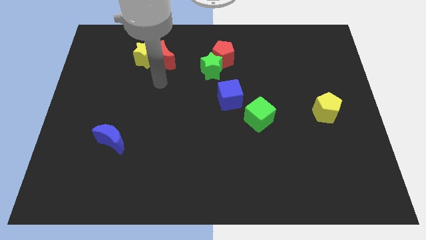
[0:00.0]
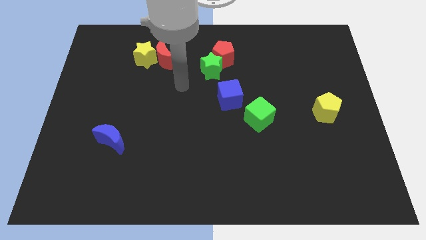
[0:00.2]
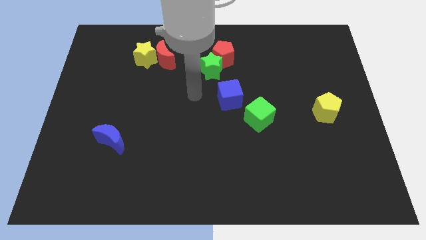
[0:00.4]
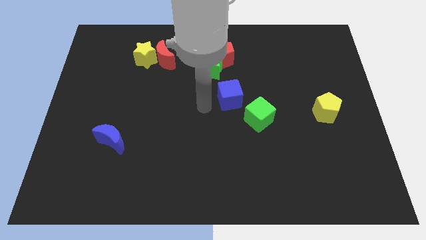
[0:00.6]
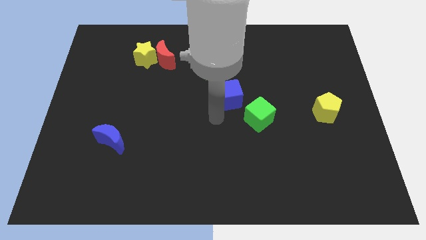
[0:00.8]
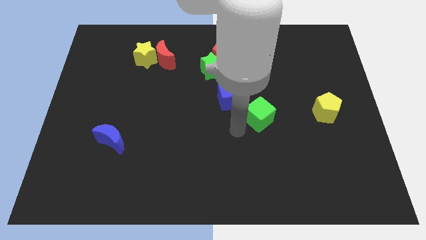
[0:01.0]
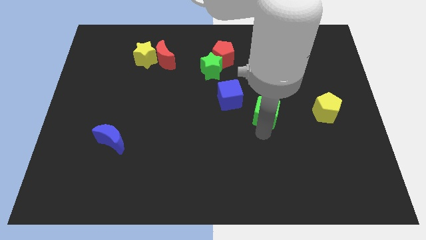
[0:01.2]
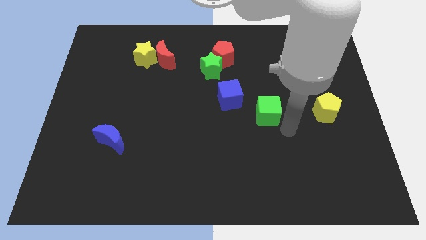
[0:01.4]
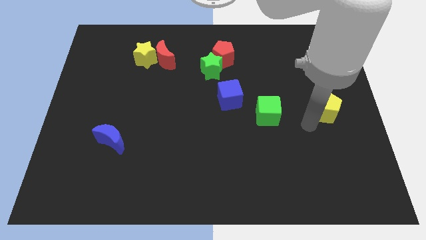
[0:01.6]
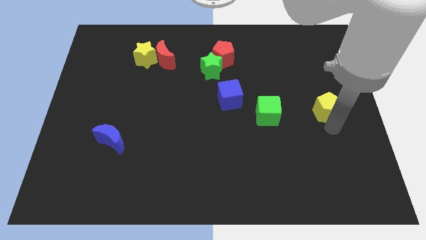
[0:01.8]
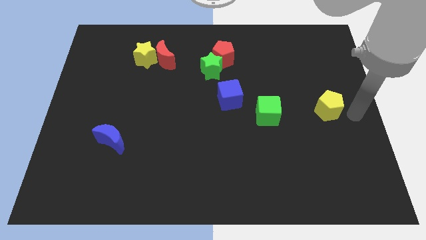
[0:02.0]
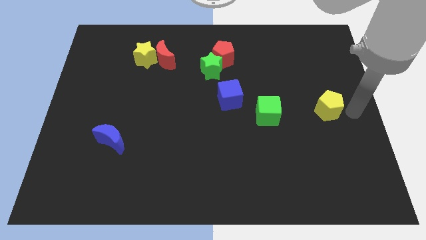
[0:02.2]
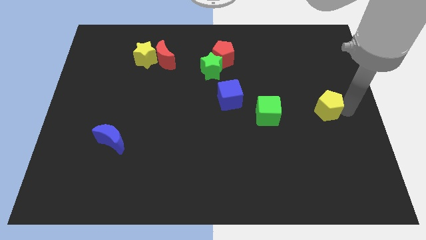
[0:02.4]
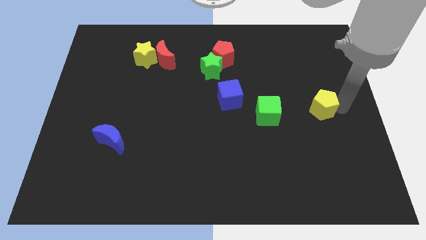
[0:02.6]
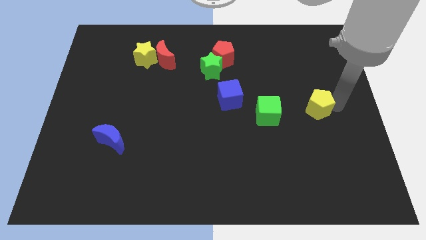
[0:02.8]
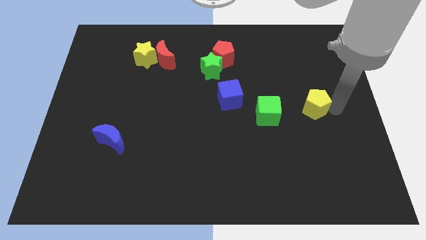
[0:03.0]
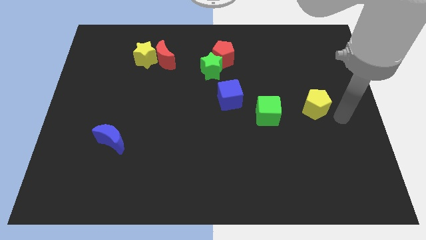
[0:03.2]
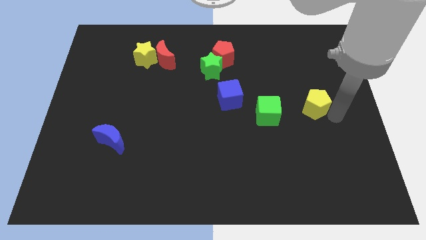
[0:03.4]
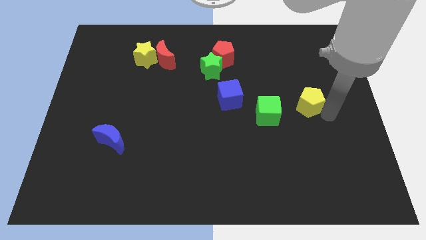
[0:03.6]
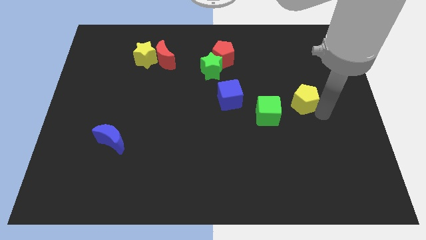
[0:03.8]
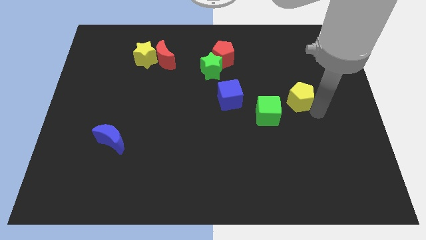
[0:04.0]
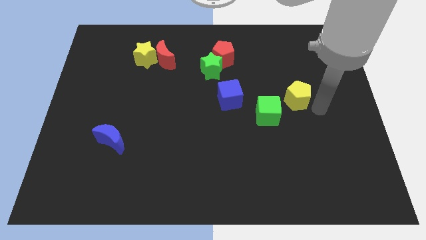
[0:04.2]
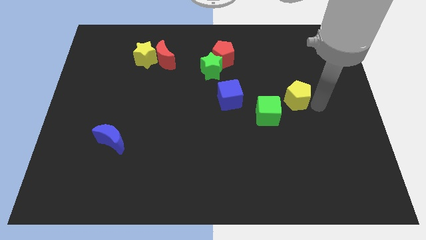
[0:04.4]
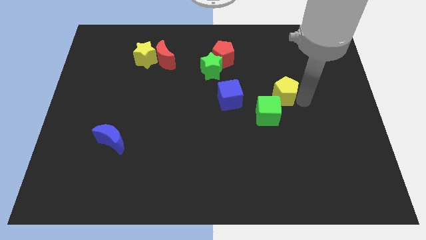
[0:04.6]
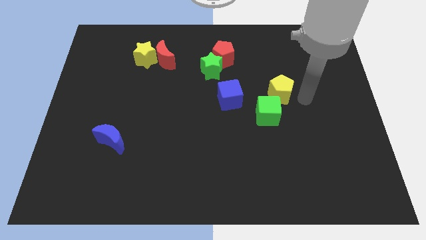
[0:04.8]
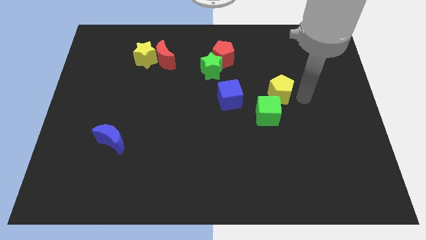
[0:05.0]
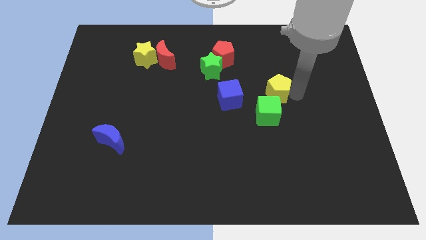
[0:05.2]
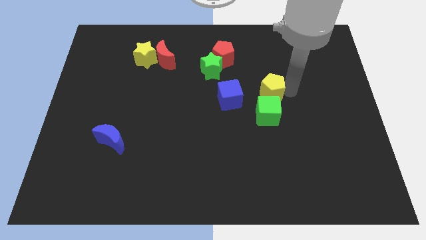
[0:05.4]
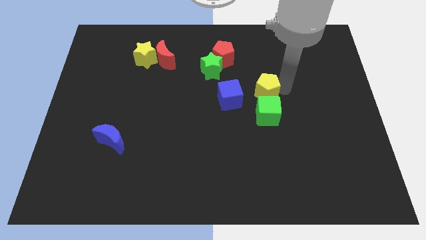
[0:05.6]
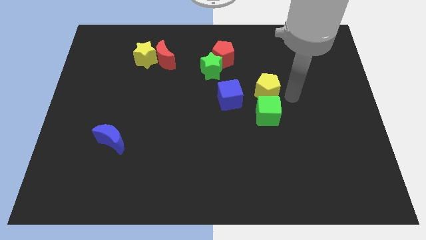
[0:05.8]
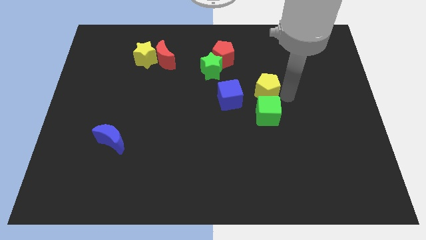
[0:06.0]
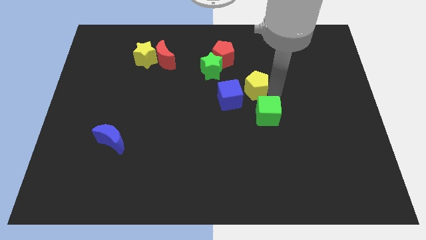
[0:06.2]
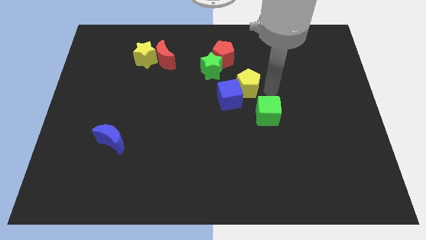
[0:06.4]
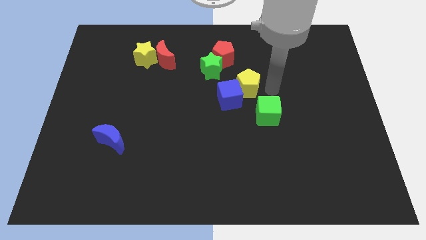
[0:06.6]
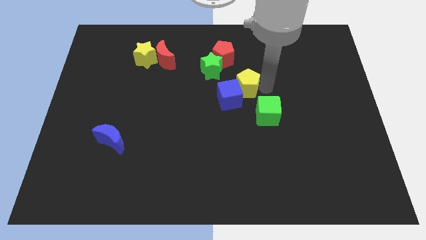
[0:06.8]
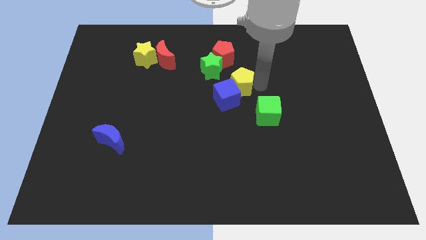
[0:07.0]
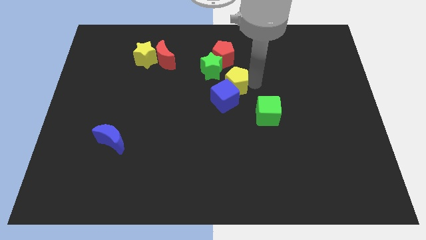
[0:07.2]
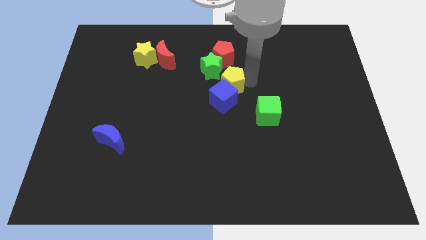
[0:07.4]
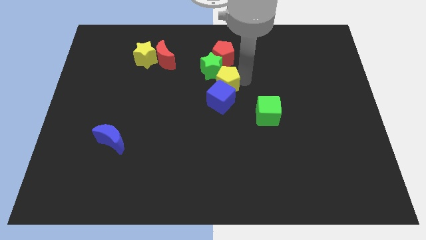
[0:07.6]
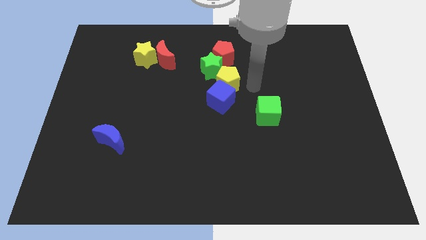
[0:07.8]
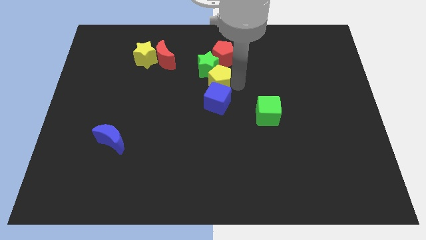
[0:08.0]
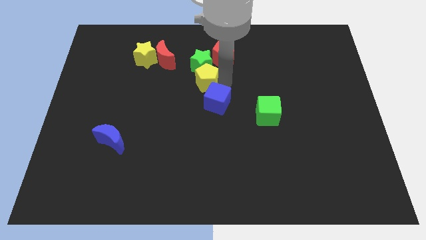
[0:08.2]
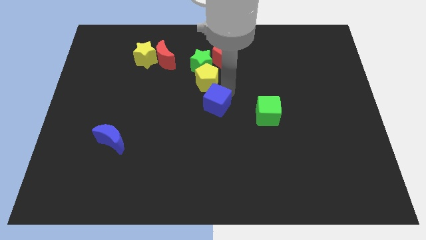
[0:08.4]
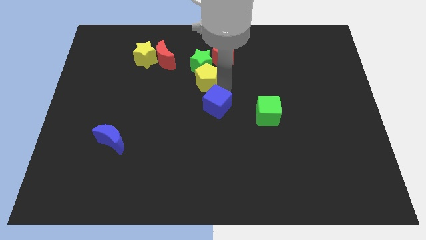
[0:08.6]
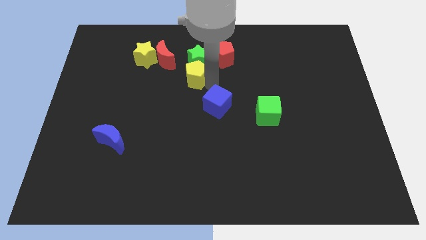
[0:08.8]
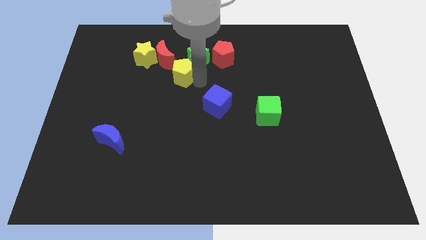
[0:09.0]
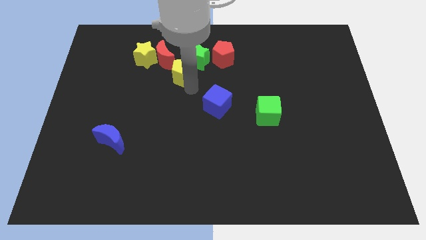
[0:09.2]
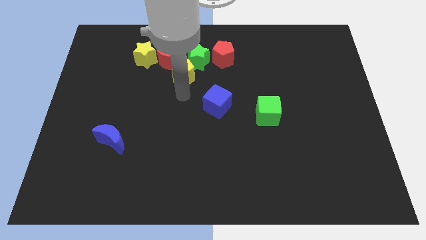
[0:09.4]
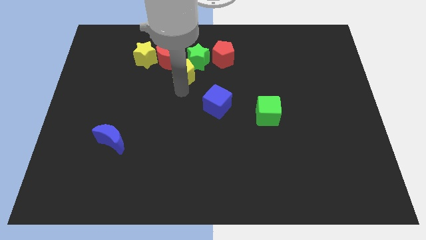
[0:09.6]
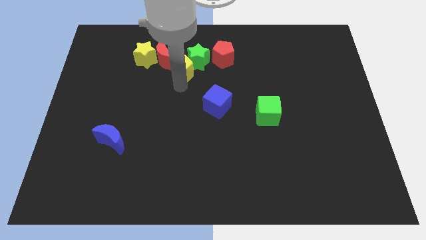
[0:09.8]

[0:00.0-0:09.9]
move the yellow pentagon to the right of the yellow star

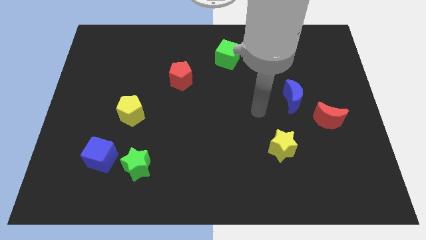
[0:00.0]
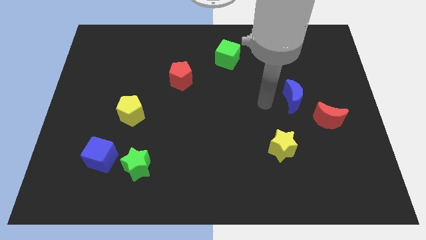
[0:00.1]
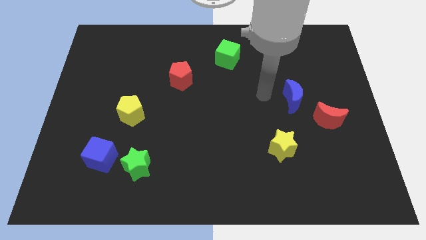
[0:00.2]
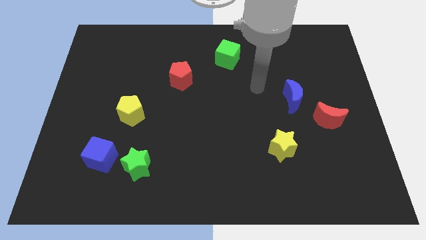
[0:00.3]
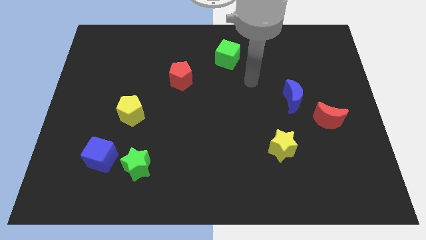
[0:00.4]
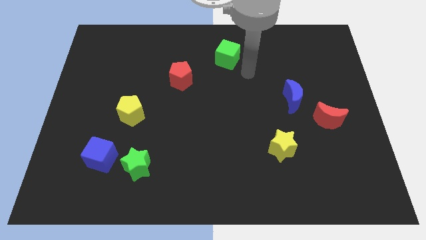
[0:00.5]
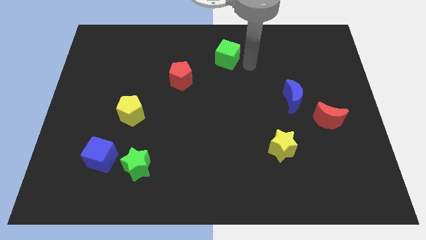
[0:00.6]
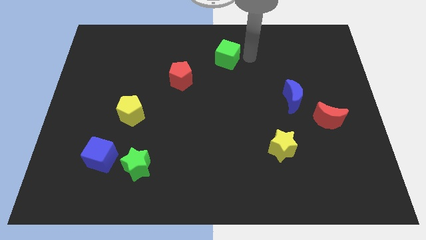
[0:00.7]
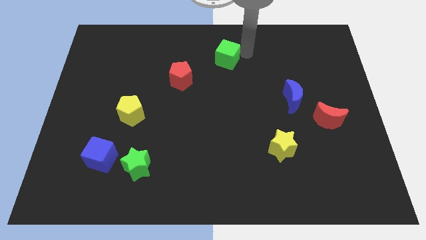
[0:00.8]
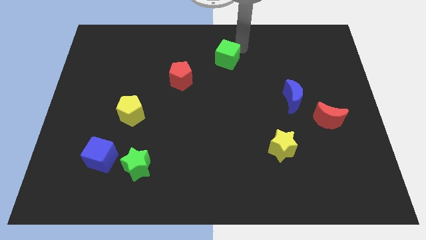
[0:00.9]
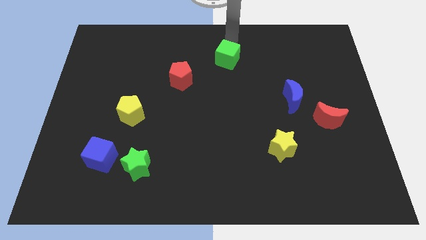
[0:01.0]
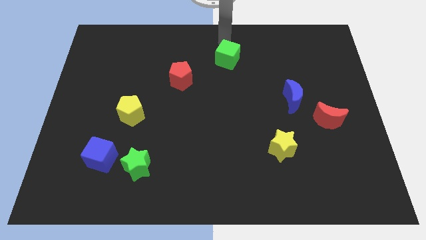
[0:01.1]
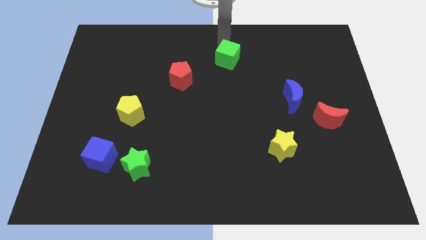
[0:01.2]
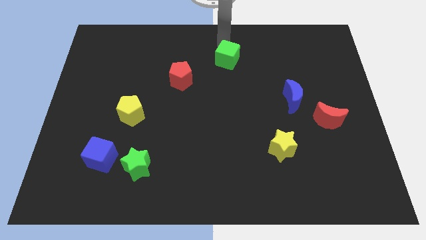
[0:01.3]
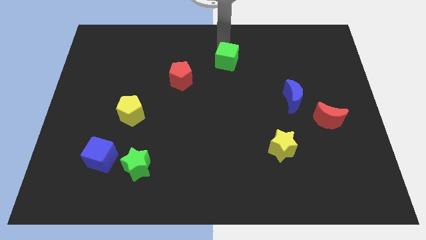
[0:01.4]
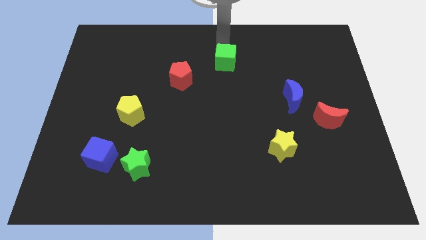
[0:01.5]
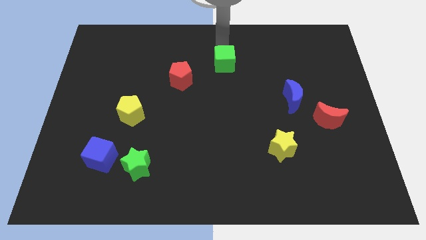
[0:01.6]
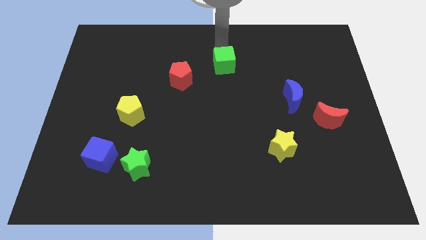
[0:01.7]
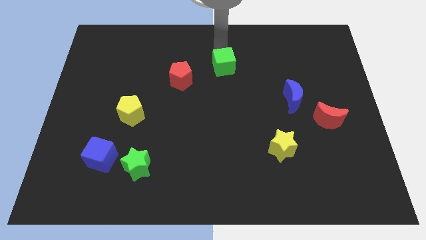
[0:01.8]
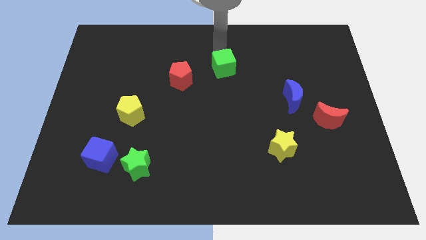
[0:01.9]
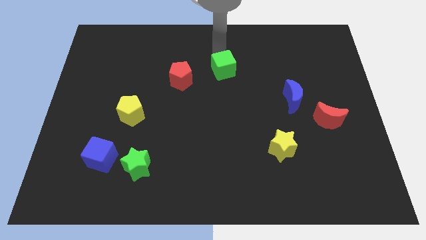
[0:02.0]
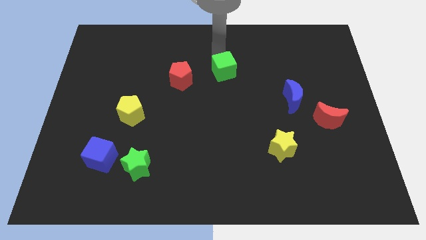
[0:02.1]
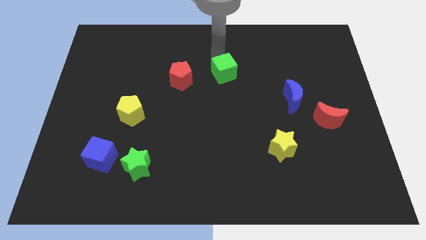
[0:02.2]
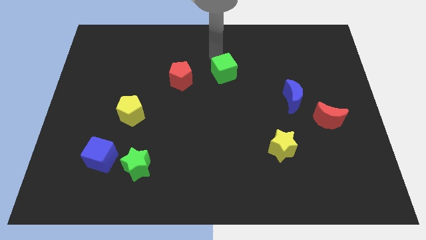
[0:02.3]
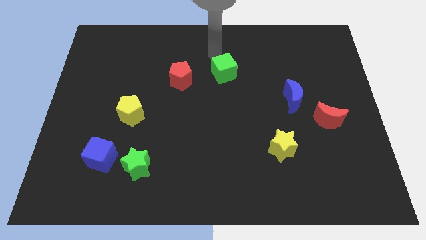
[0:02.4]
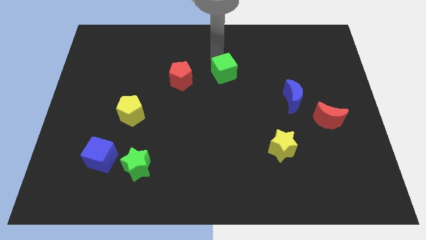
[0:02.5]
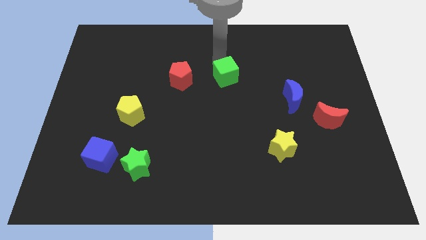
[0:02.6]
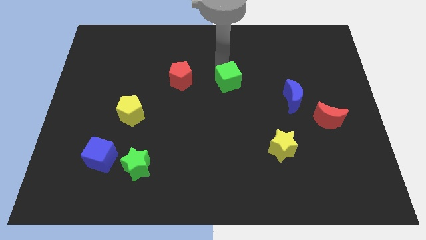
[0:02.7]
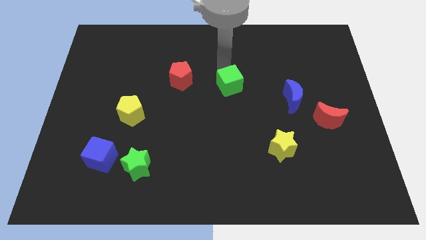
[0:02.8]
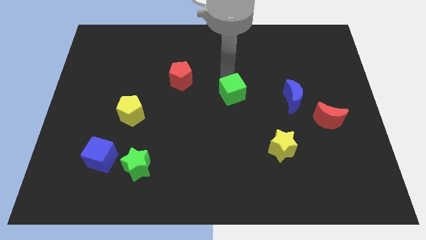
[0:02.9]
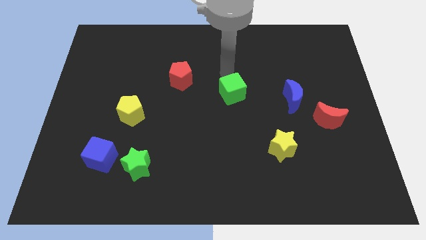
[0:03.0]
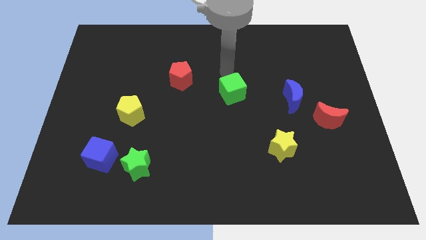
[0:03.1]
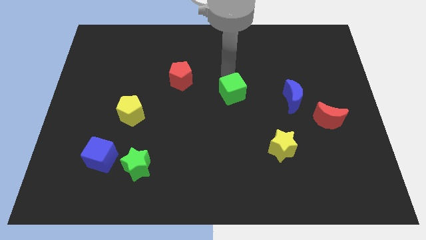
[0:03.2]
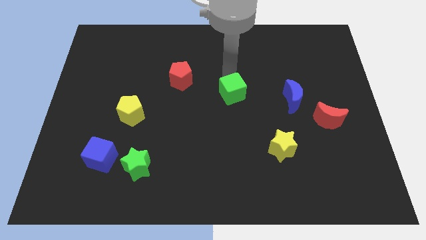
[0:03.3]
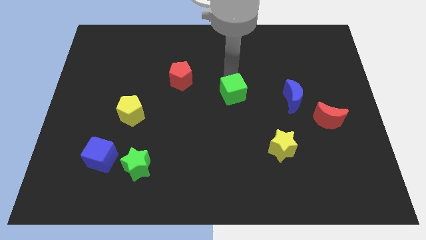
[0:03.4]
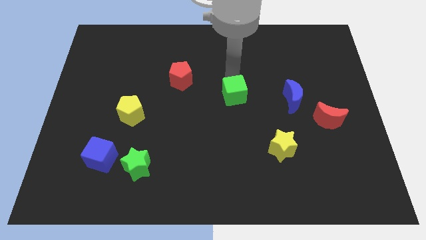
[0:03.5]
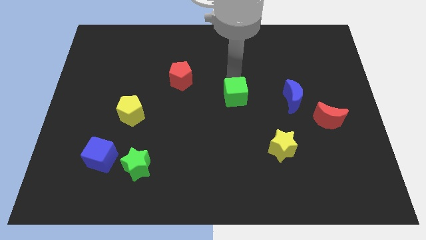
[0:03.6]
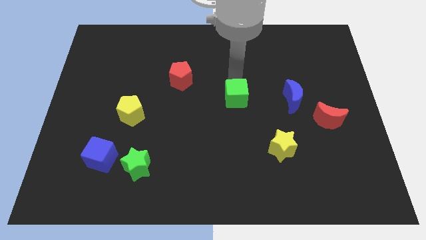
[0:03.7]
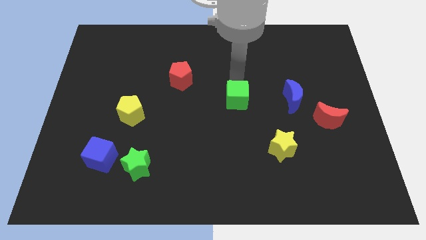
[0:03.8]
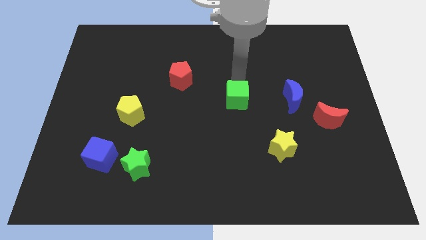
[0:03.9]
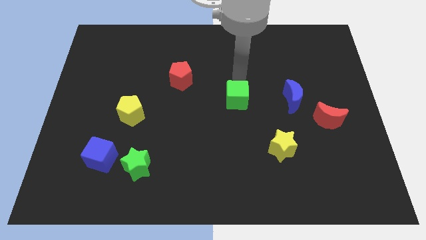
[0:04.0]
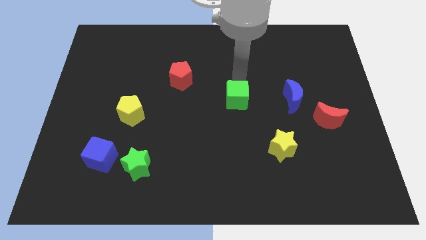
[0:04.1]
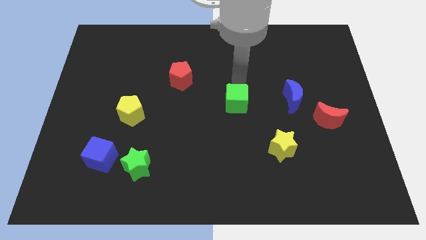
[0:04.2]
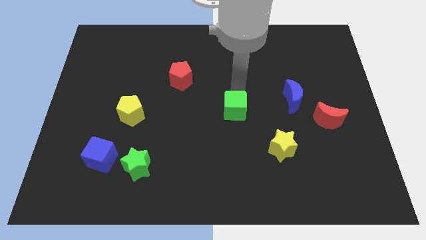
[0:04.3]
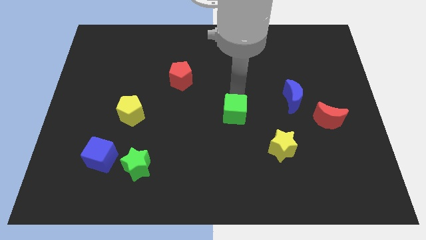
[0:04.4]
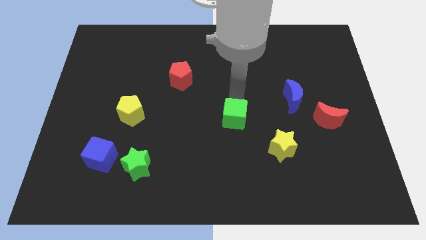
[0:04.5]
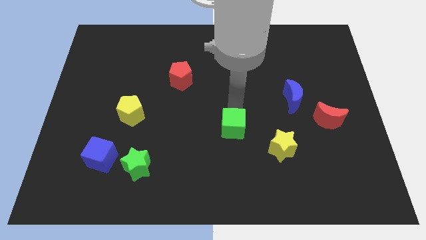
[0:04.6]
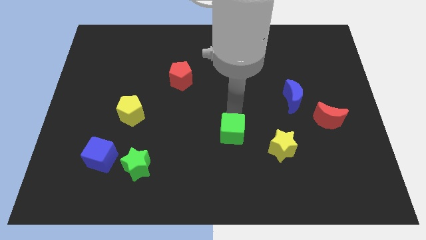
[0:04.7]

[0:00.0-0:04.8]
slide the green cube to the left side of the yellow star
